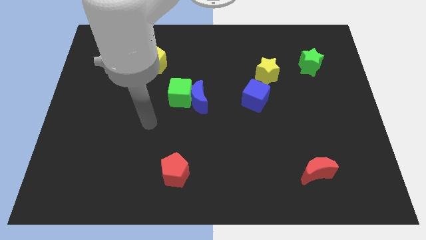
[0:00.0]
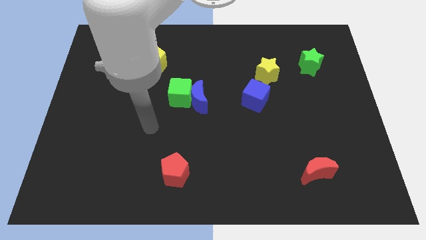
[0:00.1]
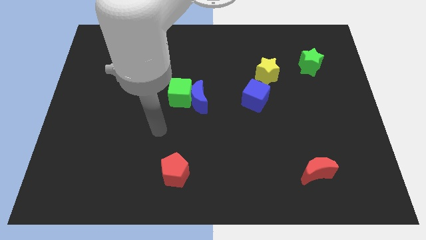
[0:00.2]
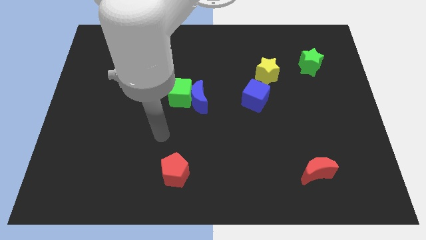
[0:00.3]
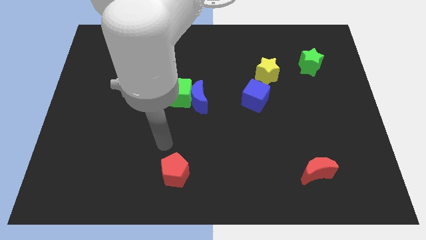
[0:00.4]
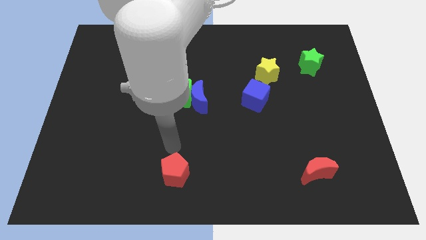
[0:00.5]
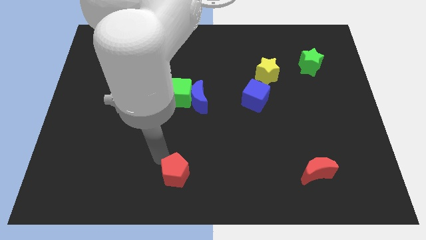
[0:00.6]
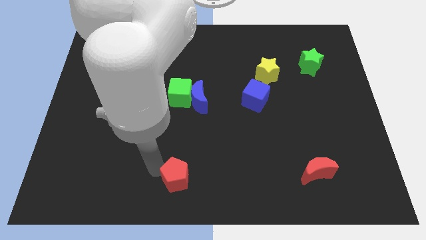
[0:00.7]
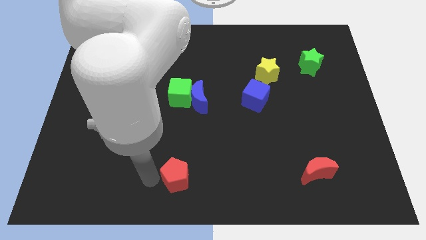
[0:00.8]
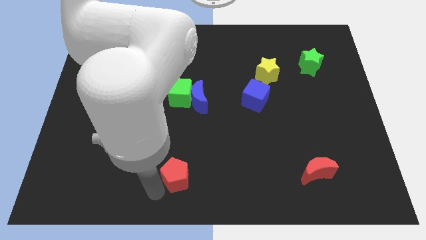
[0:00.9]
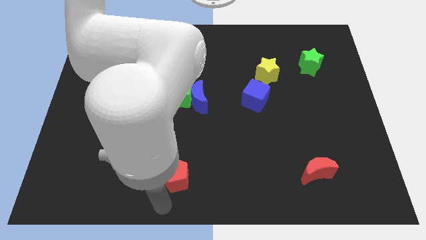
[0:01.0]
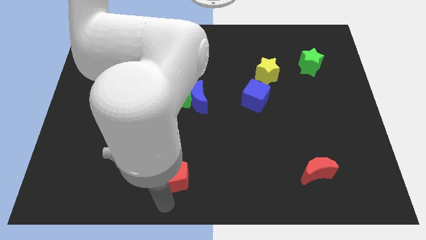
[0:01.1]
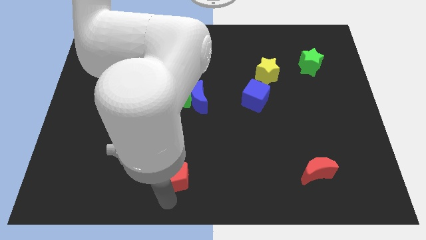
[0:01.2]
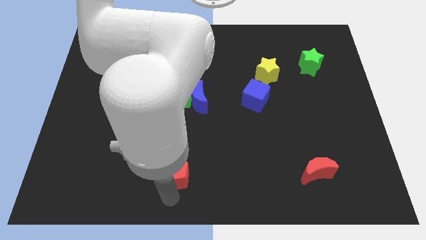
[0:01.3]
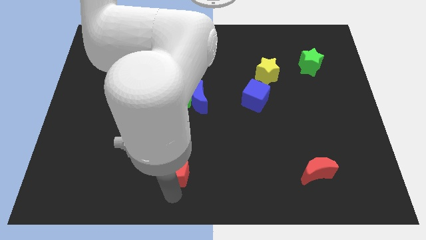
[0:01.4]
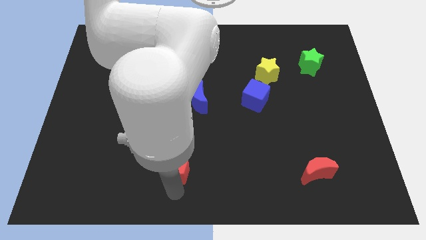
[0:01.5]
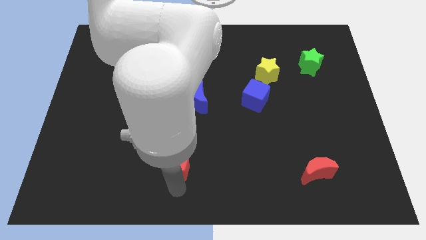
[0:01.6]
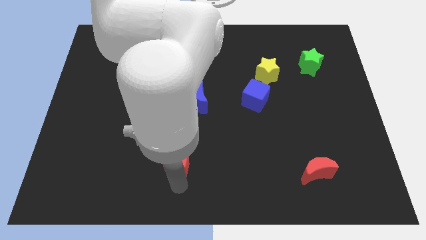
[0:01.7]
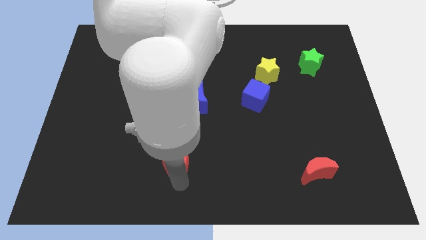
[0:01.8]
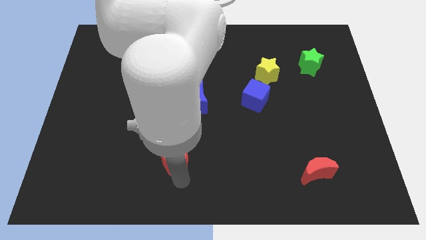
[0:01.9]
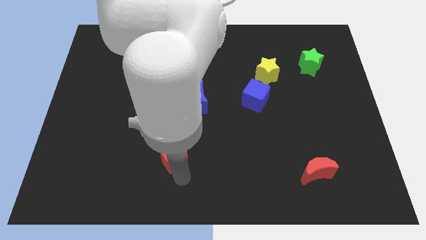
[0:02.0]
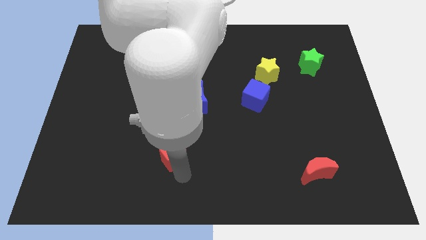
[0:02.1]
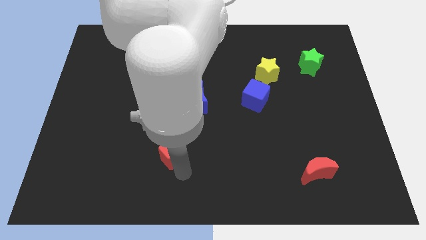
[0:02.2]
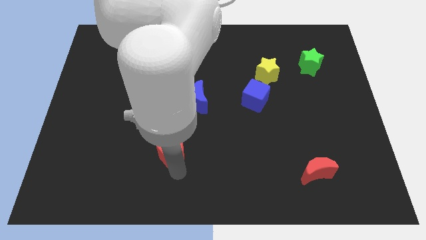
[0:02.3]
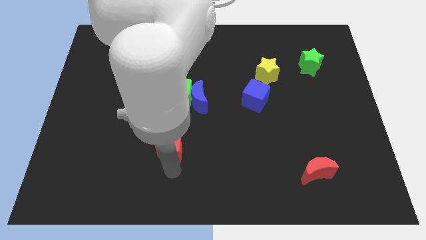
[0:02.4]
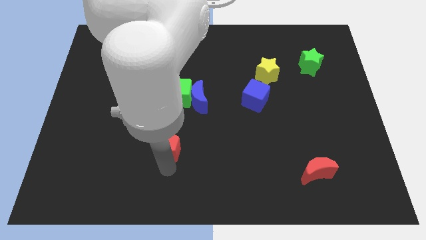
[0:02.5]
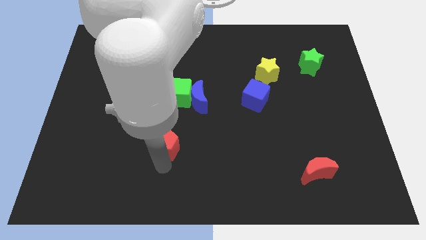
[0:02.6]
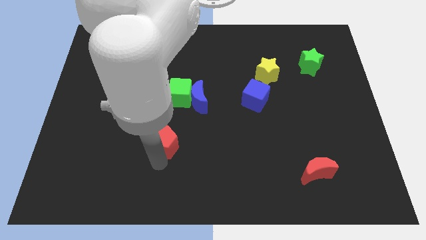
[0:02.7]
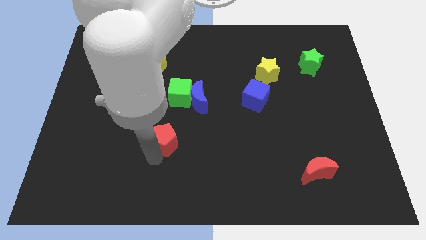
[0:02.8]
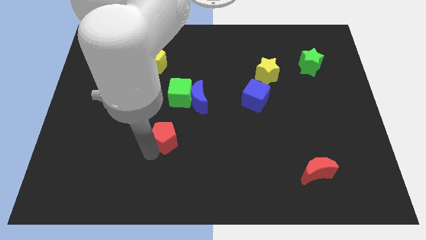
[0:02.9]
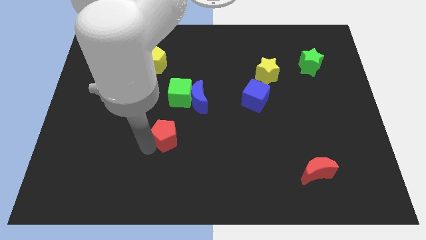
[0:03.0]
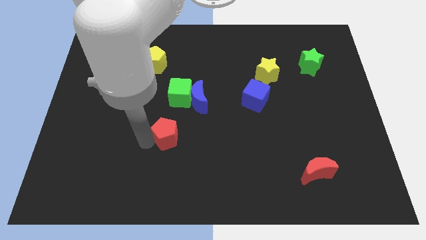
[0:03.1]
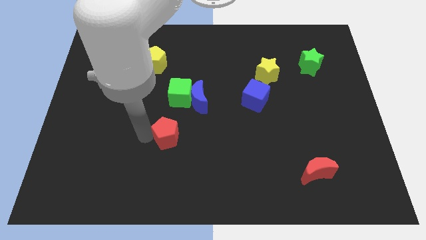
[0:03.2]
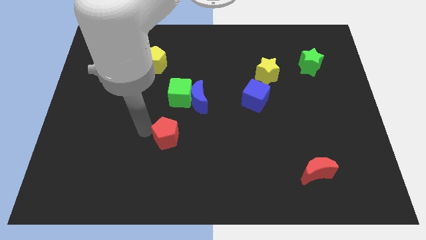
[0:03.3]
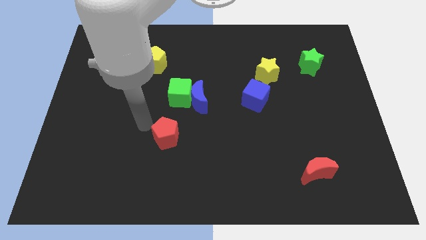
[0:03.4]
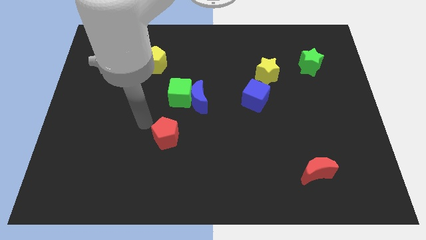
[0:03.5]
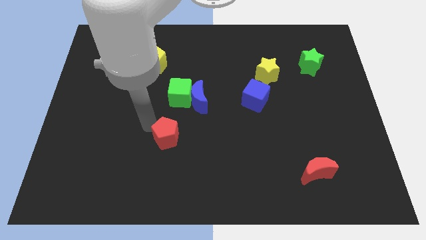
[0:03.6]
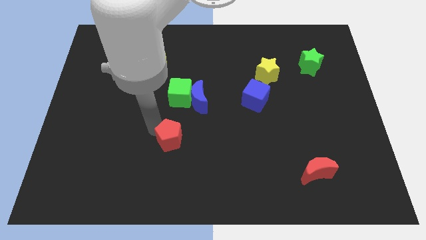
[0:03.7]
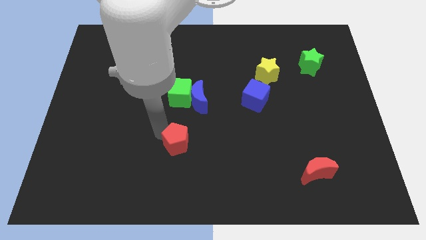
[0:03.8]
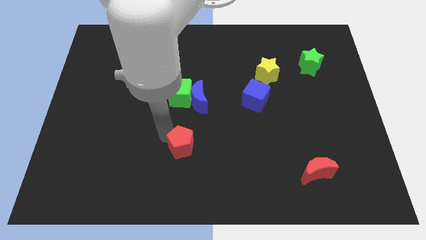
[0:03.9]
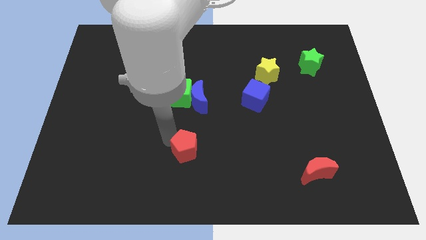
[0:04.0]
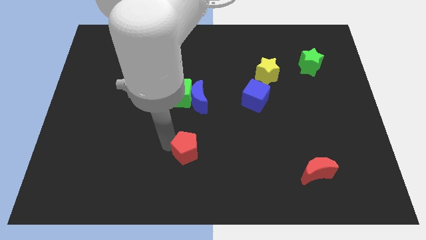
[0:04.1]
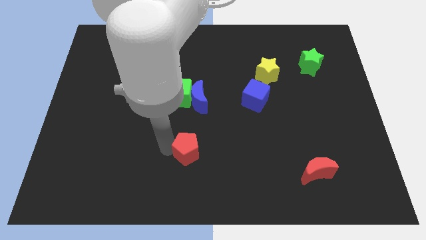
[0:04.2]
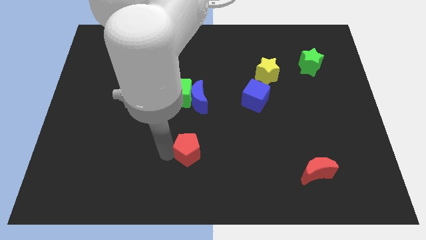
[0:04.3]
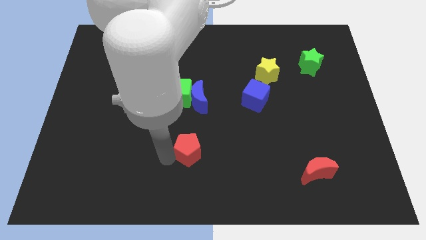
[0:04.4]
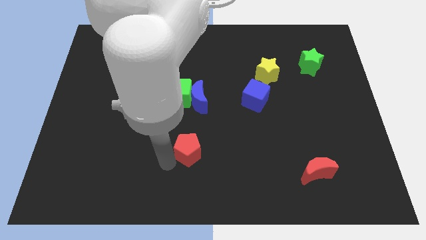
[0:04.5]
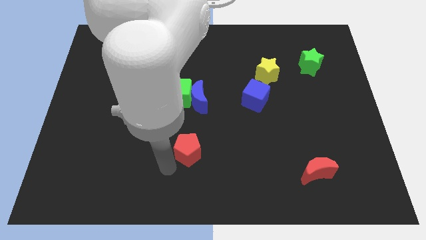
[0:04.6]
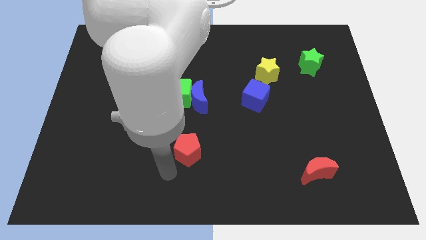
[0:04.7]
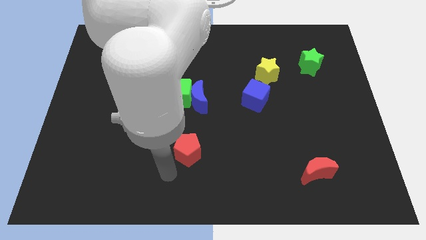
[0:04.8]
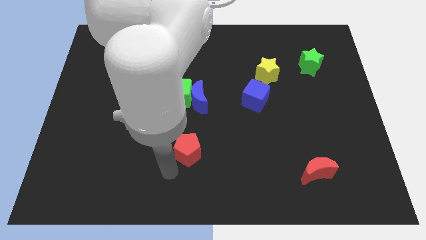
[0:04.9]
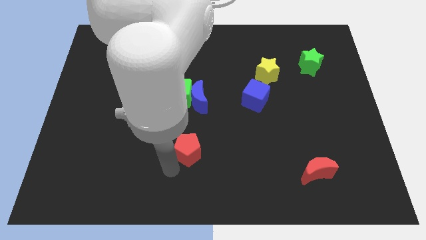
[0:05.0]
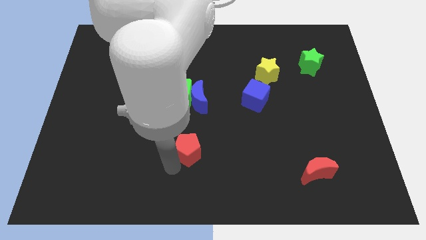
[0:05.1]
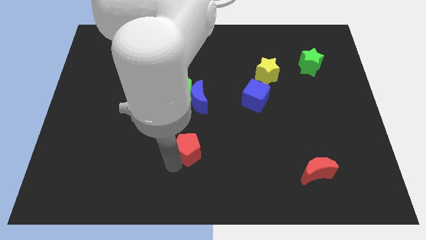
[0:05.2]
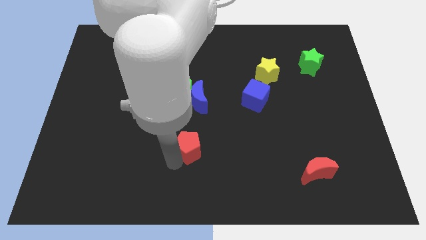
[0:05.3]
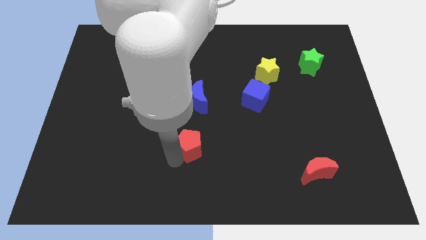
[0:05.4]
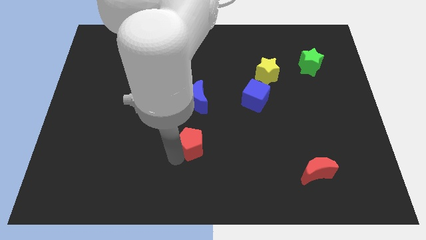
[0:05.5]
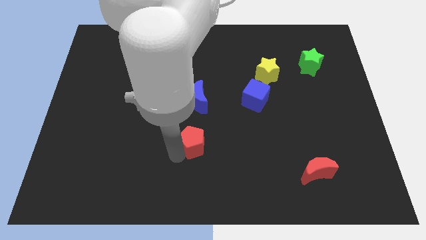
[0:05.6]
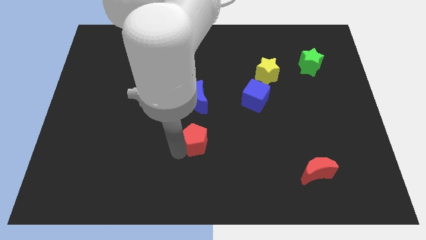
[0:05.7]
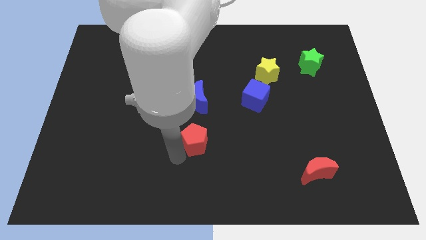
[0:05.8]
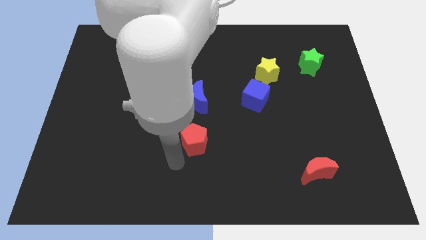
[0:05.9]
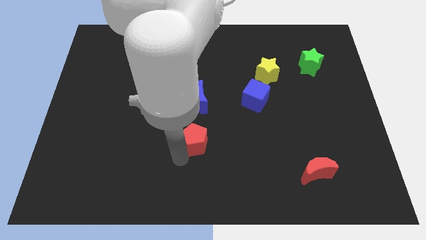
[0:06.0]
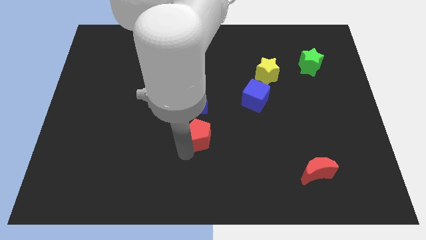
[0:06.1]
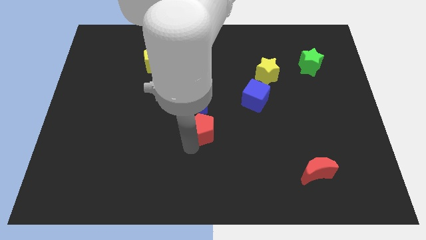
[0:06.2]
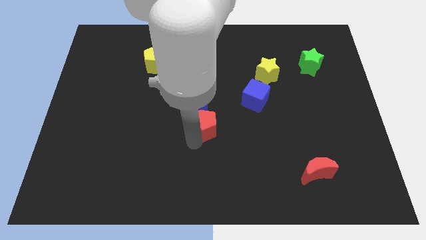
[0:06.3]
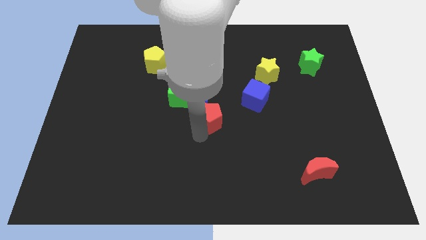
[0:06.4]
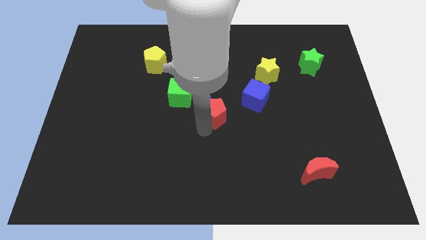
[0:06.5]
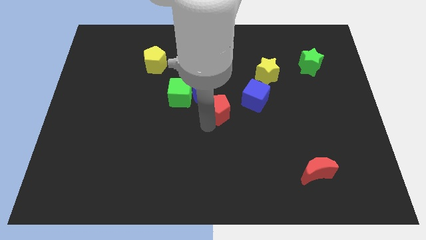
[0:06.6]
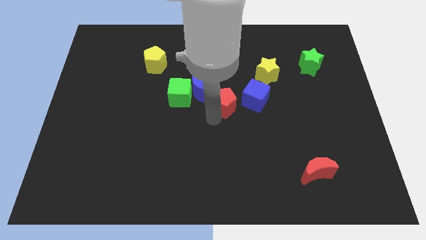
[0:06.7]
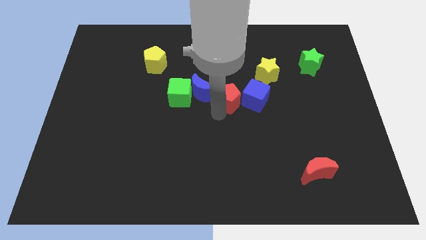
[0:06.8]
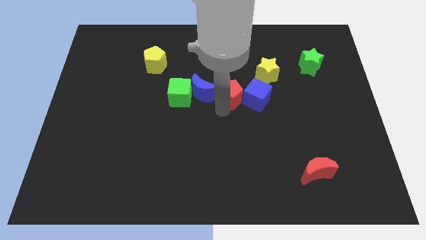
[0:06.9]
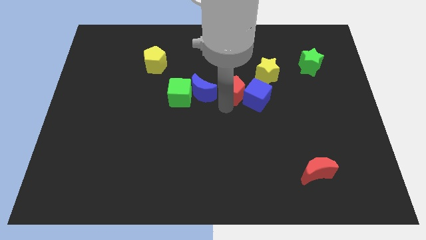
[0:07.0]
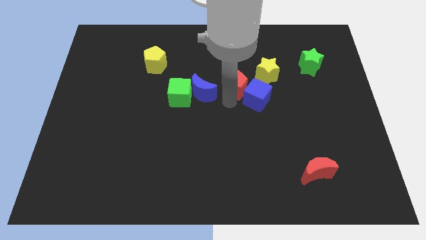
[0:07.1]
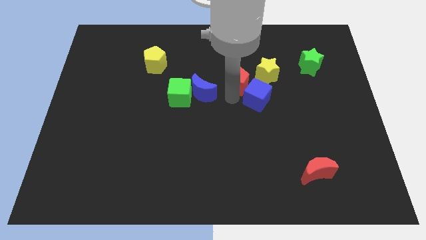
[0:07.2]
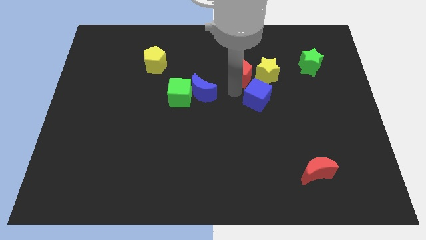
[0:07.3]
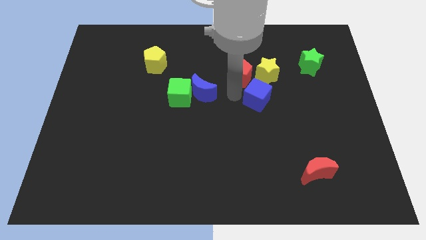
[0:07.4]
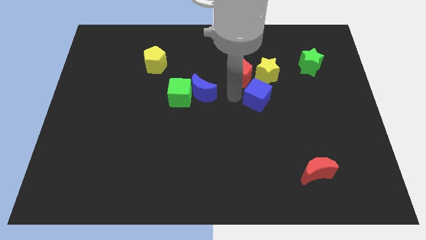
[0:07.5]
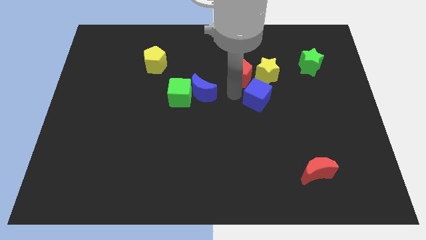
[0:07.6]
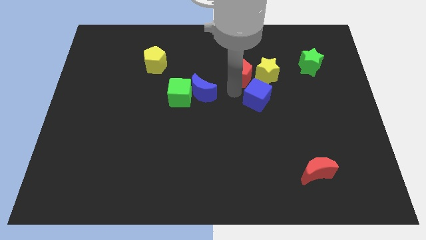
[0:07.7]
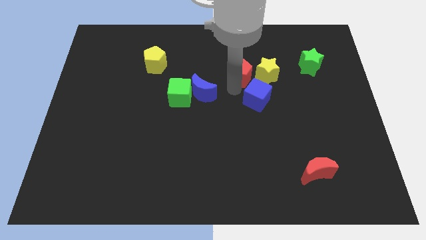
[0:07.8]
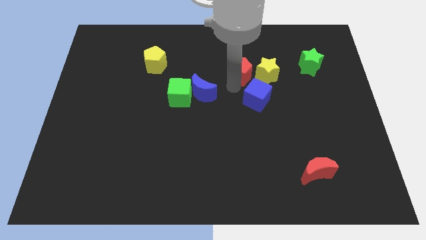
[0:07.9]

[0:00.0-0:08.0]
slide the red pentagon to the top left side of the yellow star
